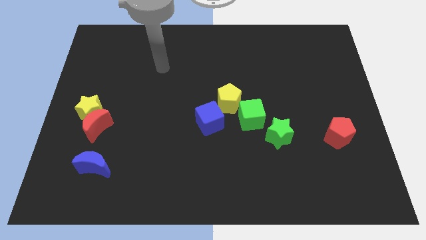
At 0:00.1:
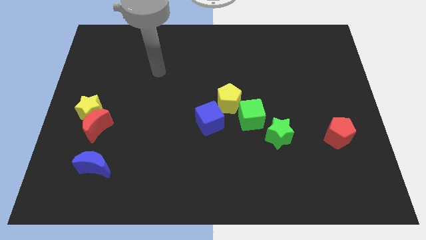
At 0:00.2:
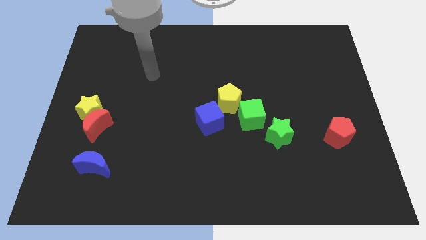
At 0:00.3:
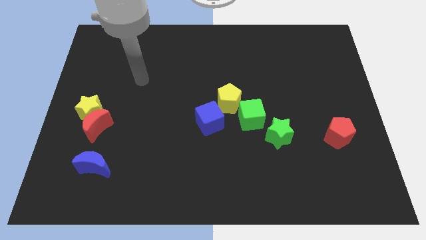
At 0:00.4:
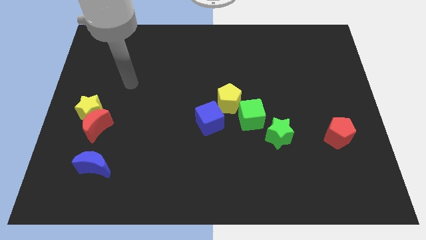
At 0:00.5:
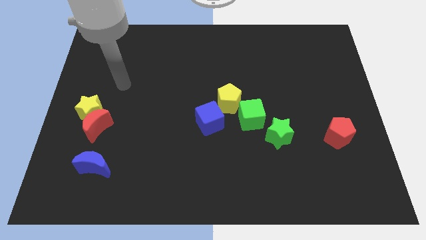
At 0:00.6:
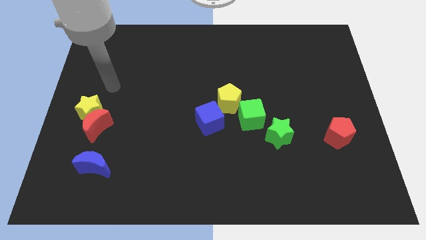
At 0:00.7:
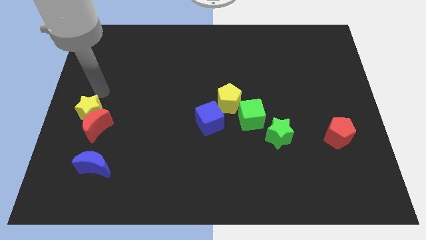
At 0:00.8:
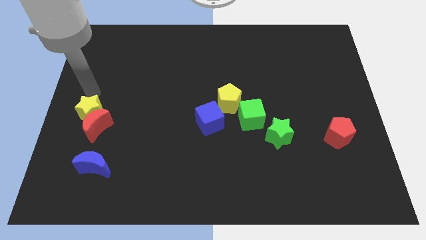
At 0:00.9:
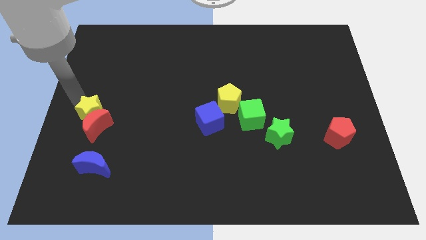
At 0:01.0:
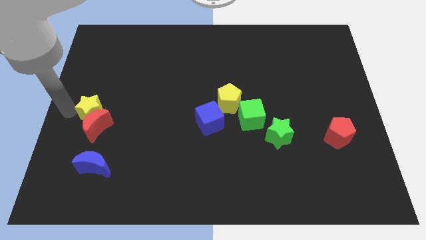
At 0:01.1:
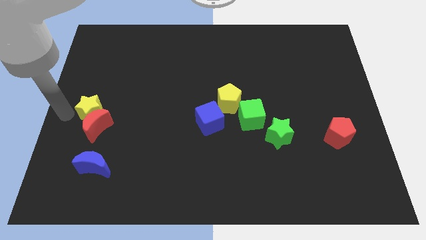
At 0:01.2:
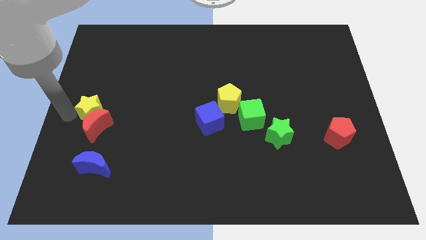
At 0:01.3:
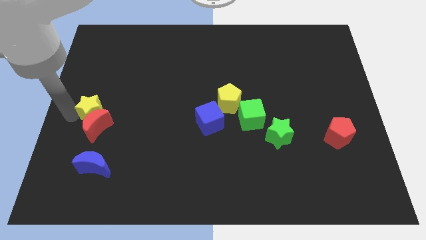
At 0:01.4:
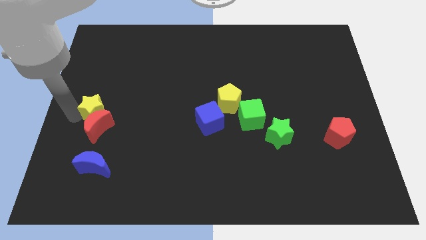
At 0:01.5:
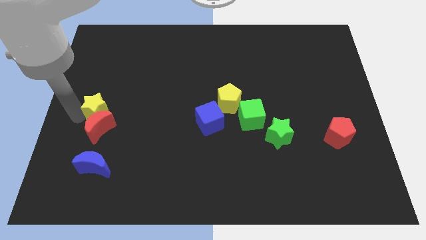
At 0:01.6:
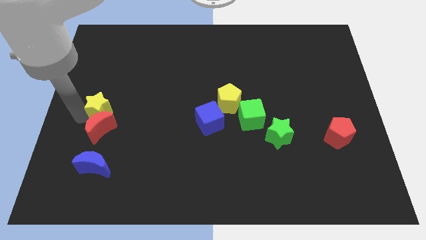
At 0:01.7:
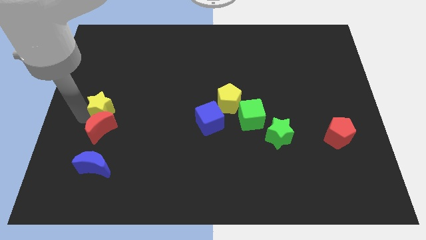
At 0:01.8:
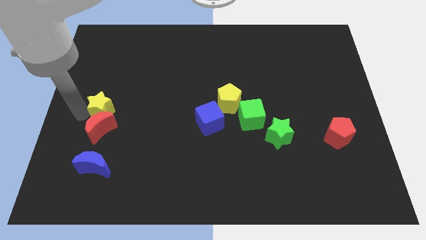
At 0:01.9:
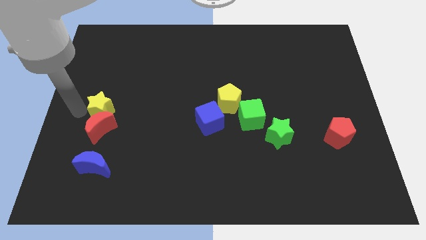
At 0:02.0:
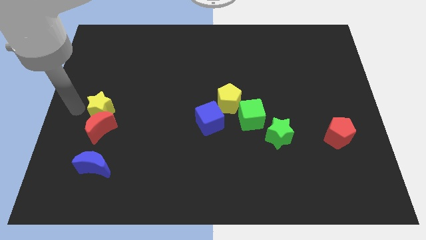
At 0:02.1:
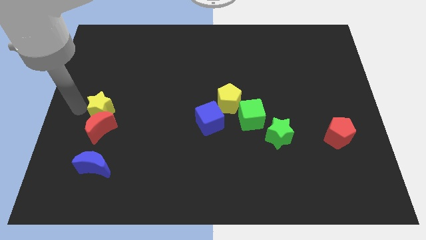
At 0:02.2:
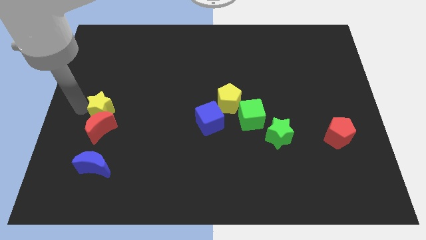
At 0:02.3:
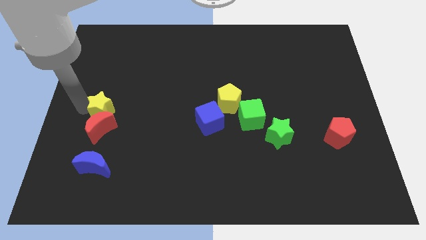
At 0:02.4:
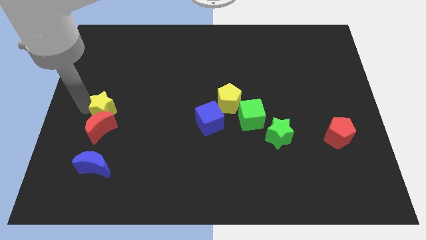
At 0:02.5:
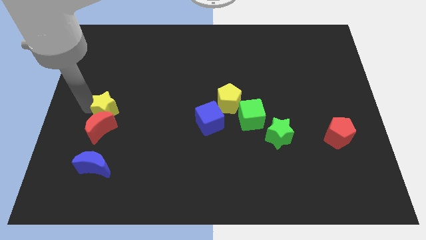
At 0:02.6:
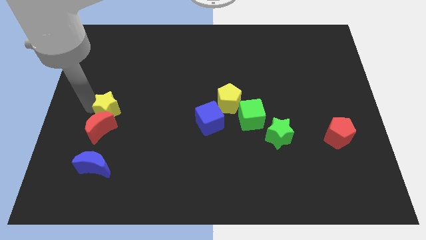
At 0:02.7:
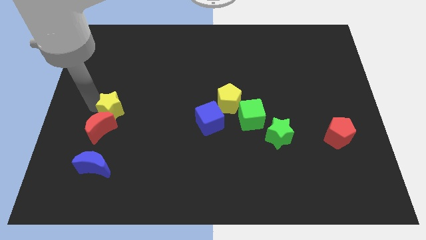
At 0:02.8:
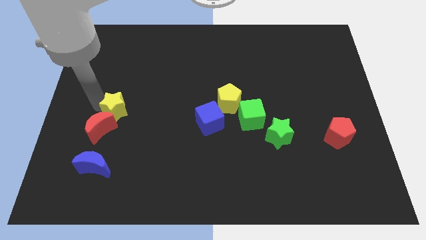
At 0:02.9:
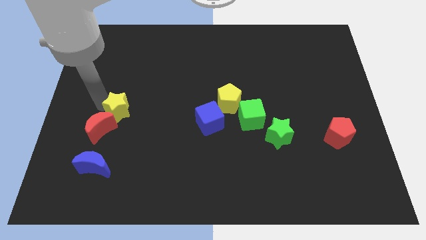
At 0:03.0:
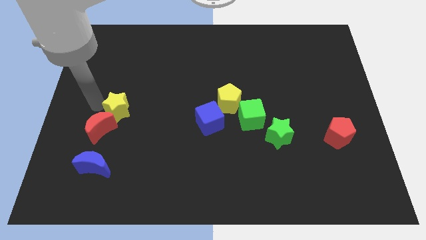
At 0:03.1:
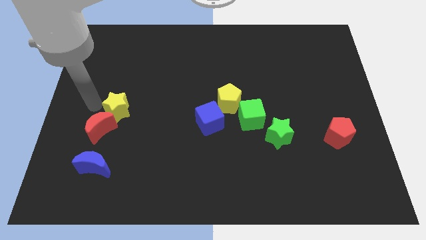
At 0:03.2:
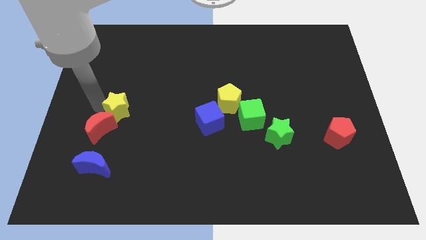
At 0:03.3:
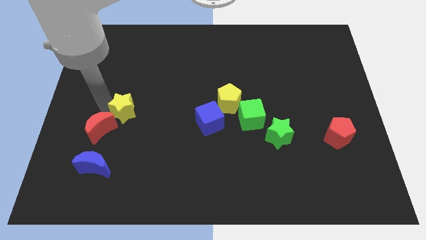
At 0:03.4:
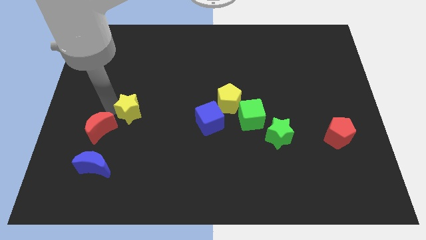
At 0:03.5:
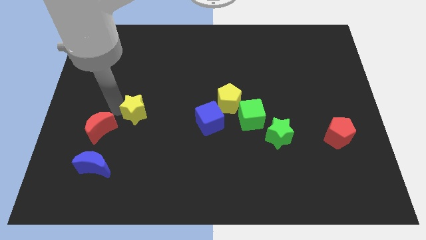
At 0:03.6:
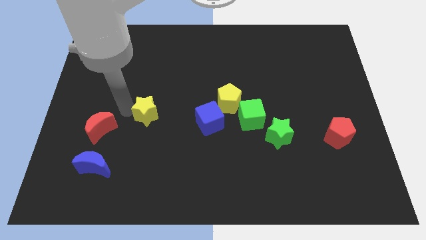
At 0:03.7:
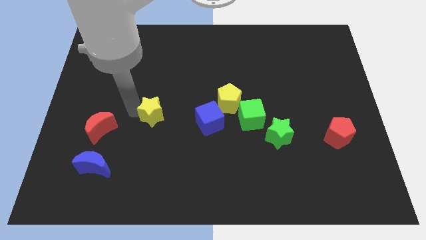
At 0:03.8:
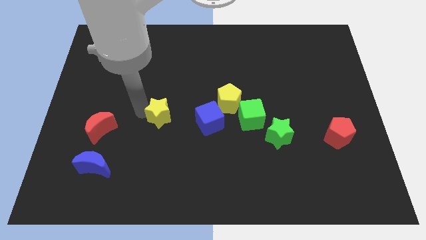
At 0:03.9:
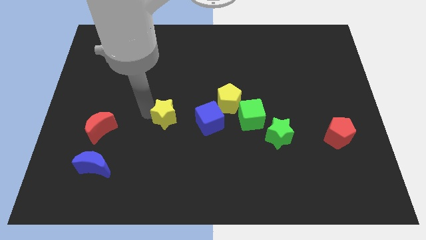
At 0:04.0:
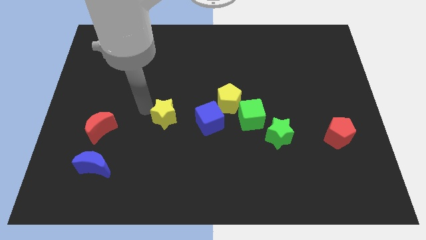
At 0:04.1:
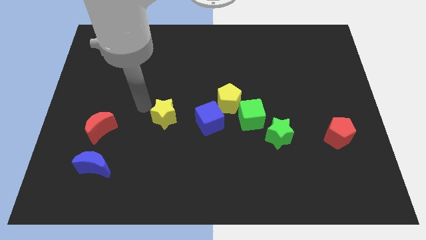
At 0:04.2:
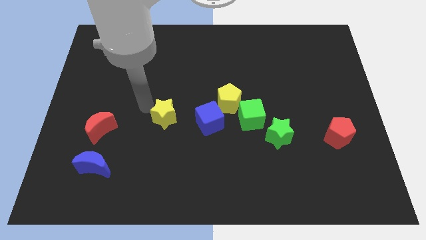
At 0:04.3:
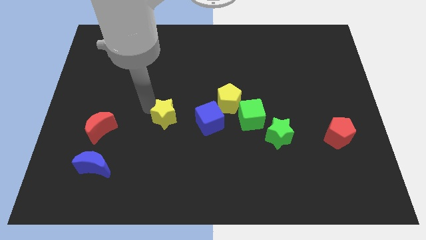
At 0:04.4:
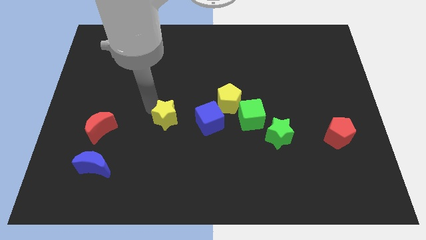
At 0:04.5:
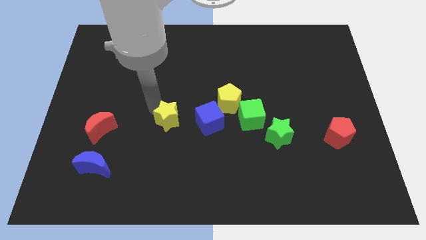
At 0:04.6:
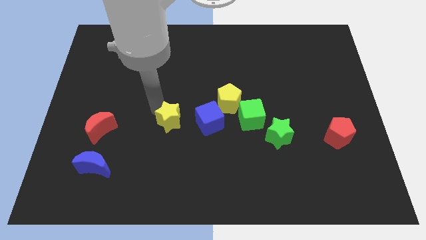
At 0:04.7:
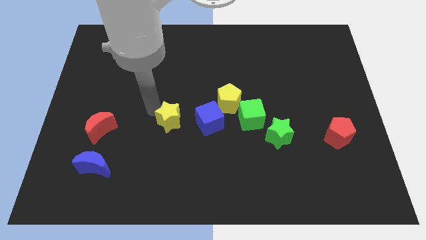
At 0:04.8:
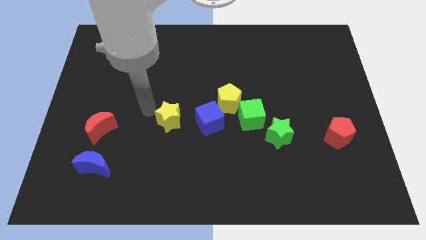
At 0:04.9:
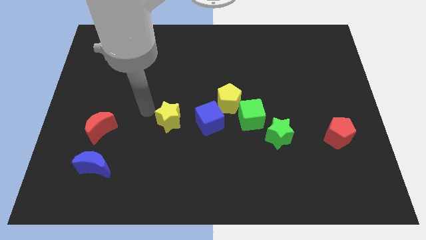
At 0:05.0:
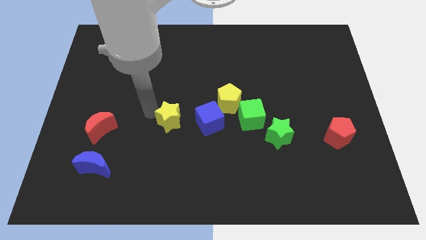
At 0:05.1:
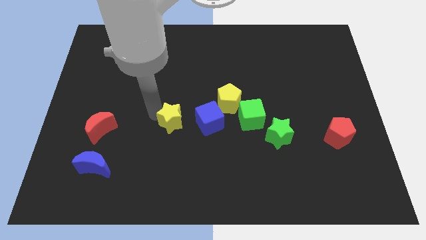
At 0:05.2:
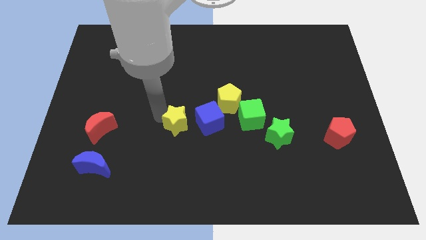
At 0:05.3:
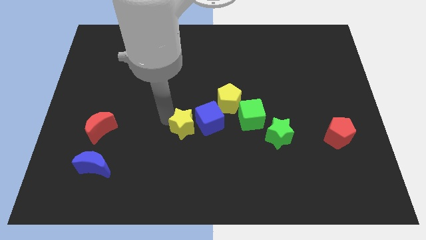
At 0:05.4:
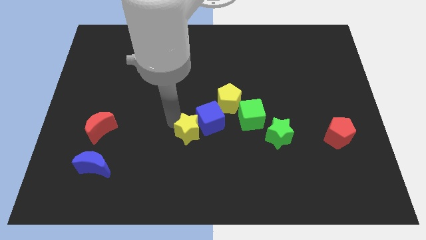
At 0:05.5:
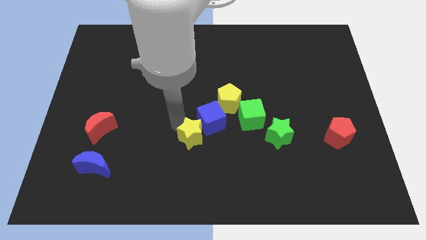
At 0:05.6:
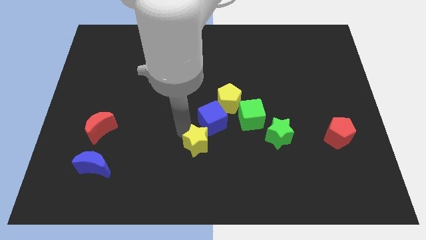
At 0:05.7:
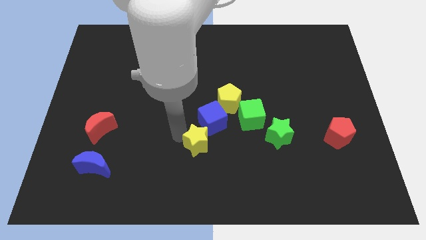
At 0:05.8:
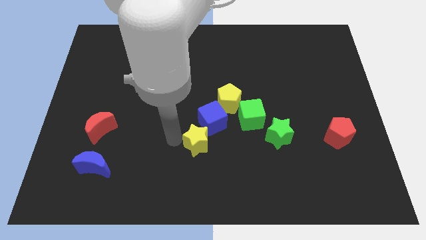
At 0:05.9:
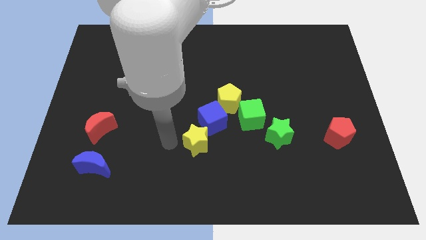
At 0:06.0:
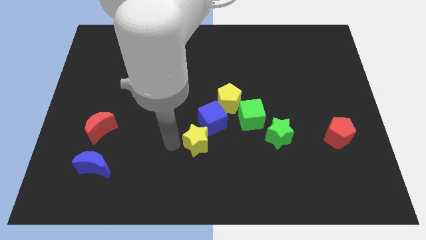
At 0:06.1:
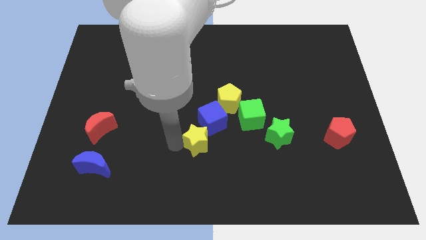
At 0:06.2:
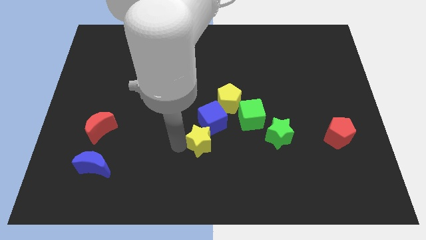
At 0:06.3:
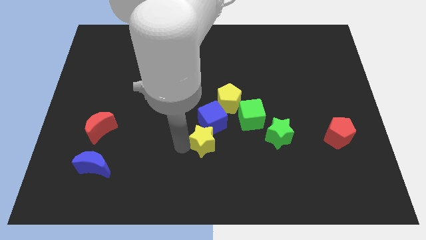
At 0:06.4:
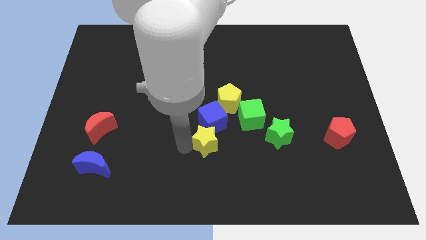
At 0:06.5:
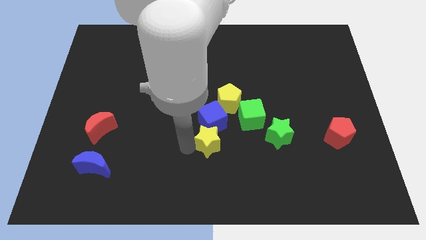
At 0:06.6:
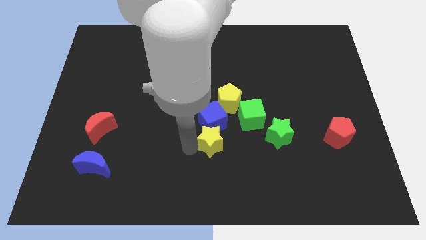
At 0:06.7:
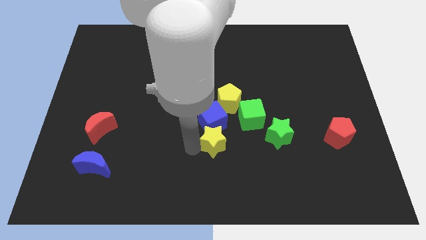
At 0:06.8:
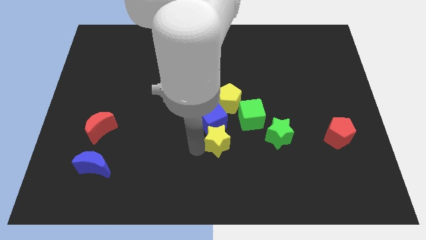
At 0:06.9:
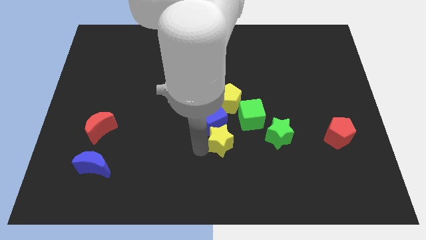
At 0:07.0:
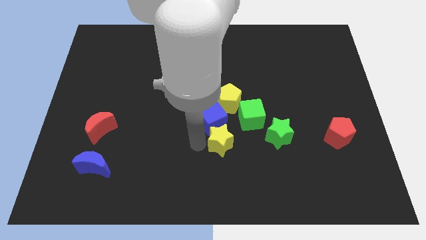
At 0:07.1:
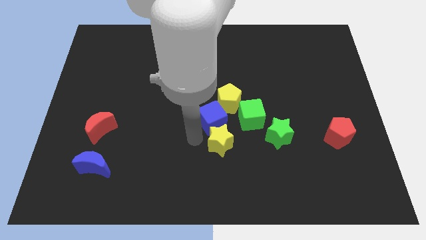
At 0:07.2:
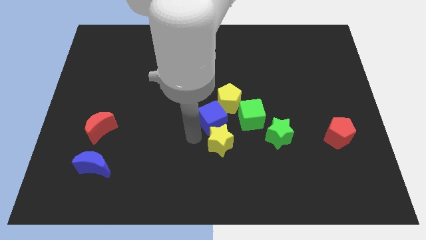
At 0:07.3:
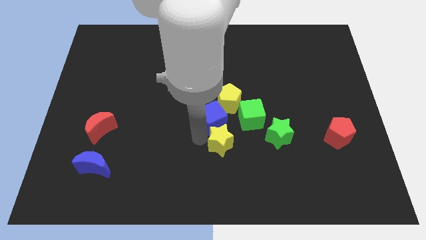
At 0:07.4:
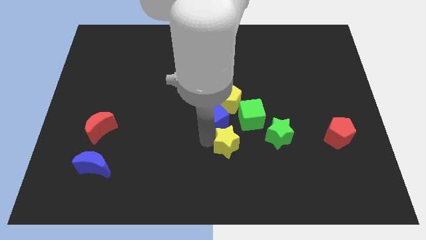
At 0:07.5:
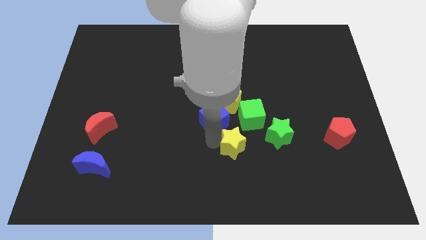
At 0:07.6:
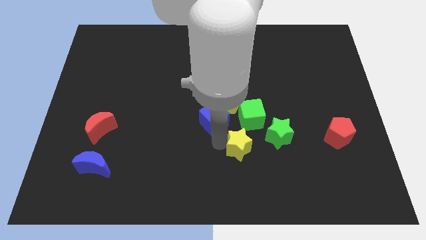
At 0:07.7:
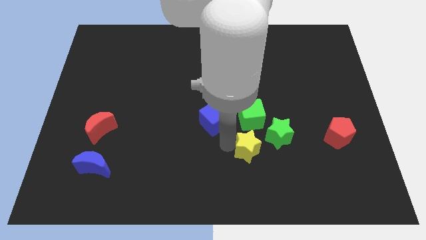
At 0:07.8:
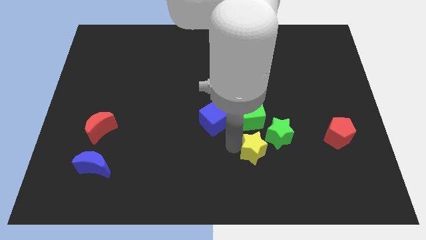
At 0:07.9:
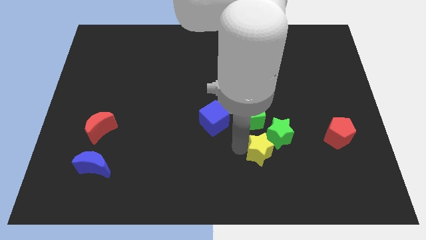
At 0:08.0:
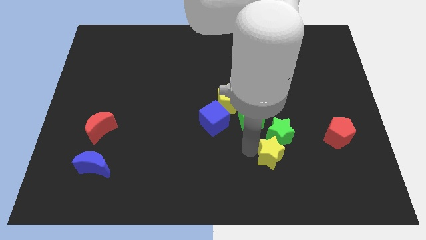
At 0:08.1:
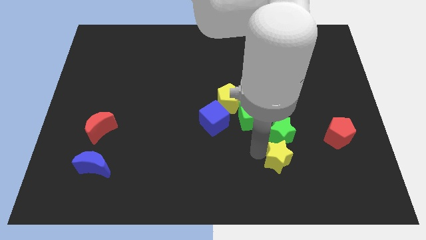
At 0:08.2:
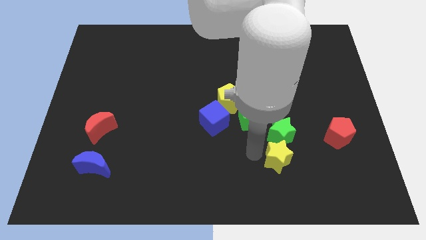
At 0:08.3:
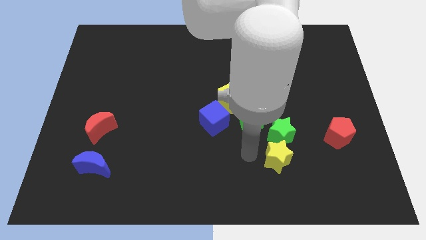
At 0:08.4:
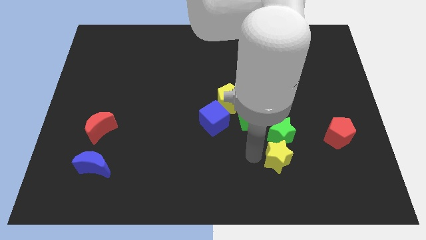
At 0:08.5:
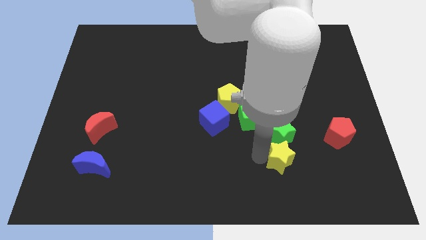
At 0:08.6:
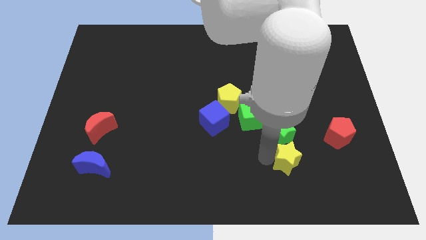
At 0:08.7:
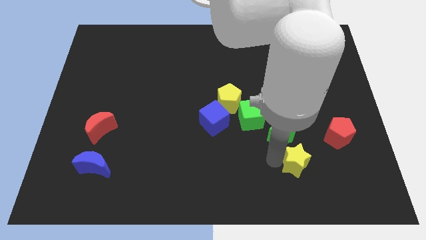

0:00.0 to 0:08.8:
move the yellow star to the bottom left of the red pentagon
